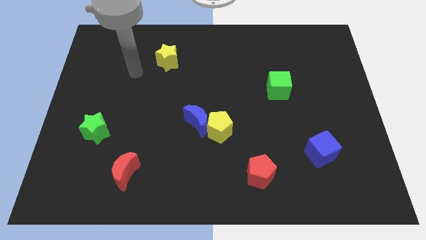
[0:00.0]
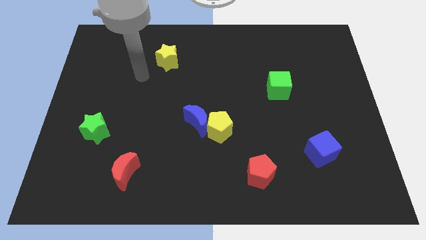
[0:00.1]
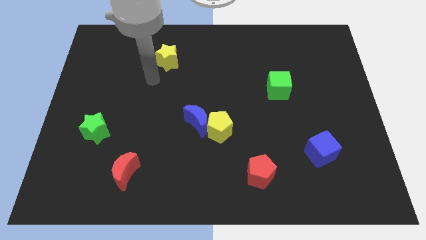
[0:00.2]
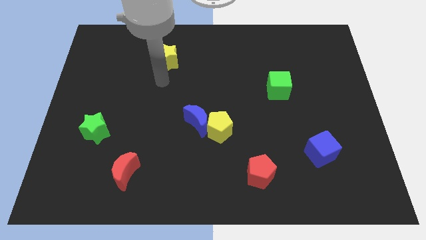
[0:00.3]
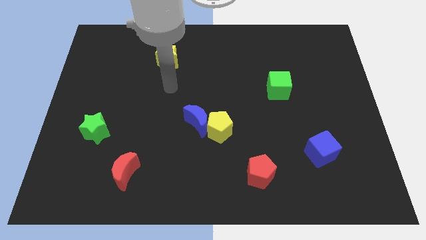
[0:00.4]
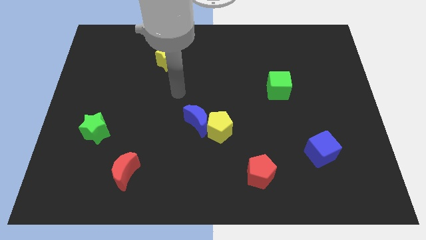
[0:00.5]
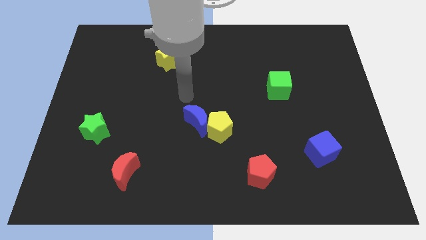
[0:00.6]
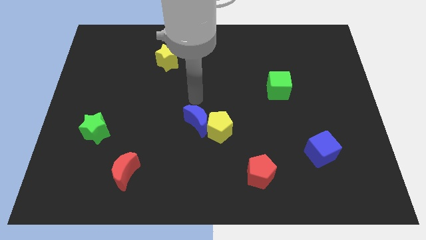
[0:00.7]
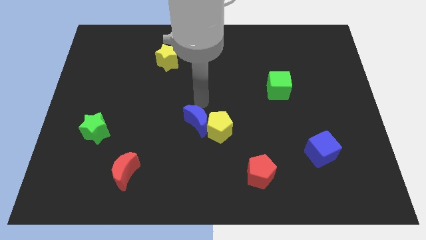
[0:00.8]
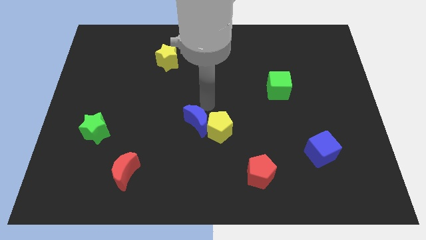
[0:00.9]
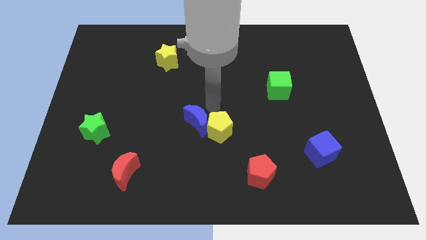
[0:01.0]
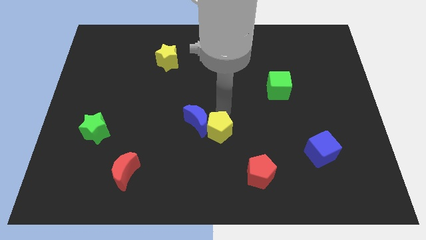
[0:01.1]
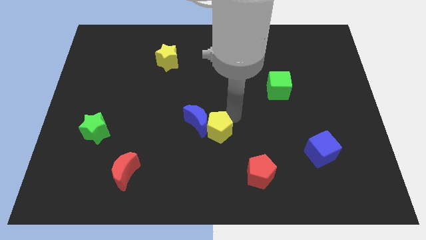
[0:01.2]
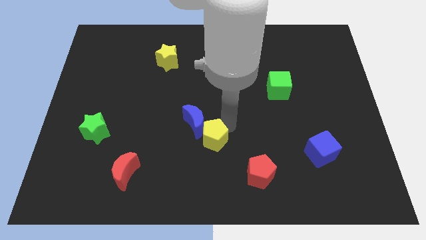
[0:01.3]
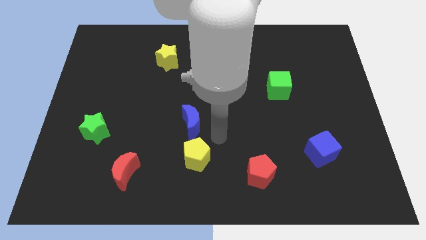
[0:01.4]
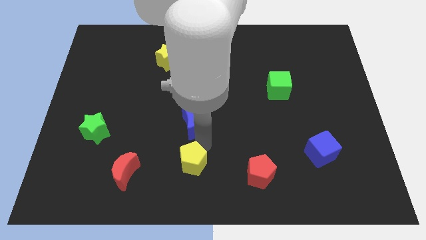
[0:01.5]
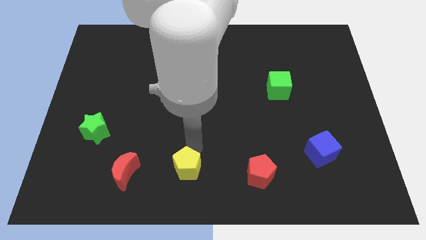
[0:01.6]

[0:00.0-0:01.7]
pull the blue moon apart from the yellow pentagon

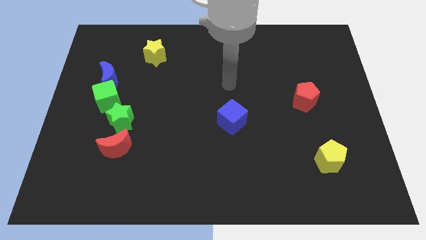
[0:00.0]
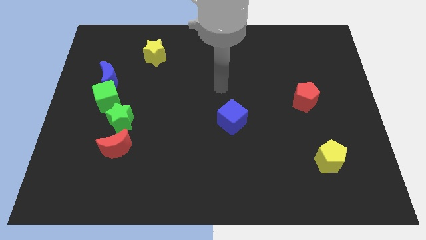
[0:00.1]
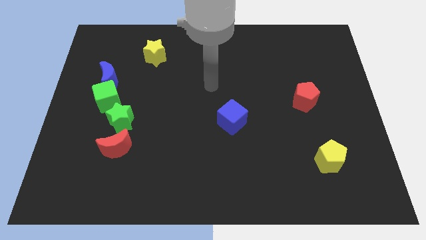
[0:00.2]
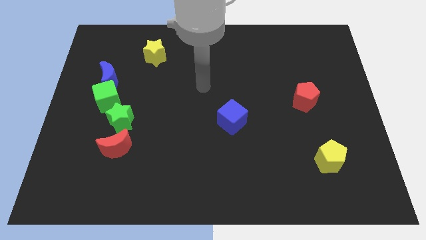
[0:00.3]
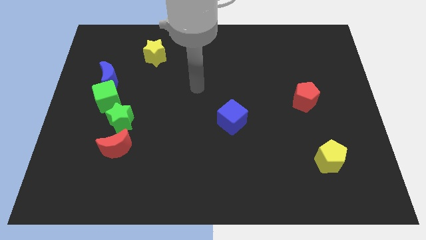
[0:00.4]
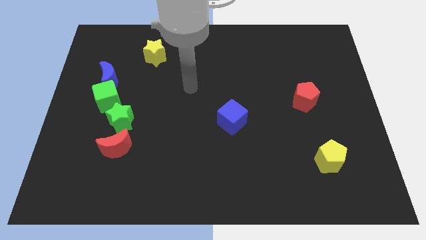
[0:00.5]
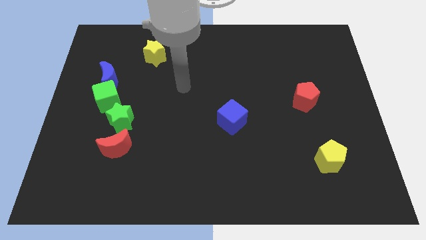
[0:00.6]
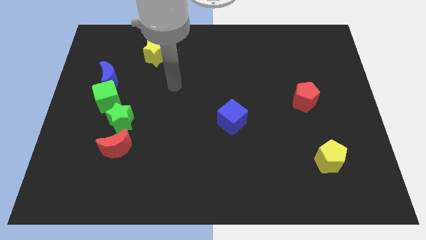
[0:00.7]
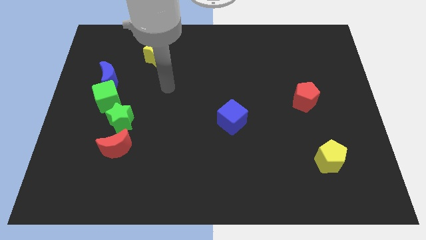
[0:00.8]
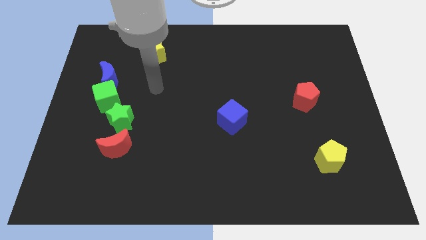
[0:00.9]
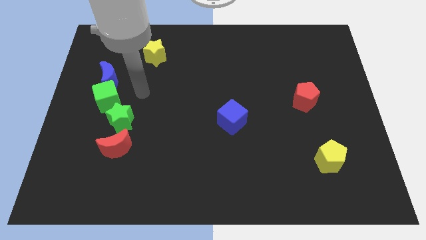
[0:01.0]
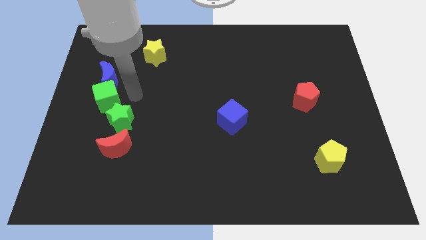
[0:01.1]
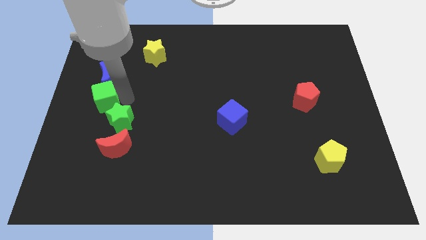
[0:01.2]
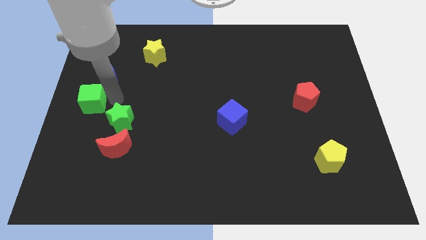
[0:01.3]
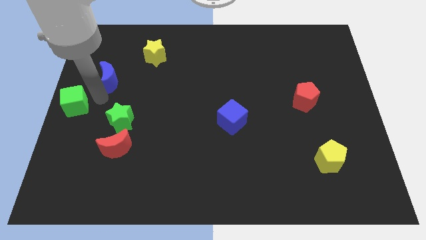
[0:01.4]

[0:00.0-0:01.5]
move the blue moon away from the green cube

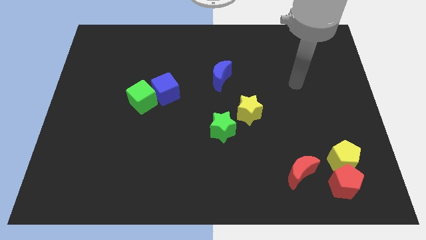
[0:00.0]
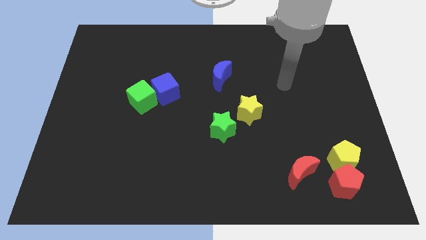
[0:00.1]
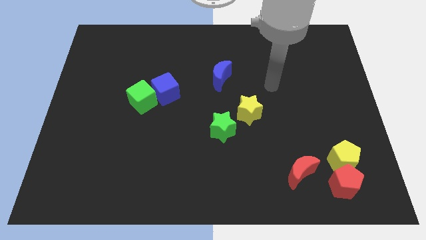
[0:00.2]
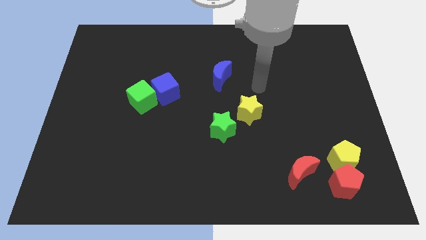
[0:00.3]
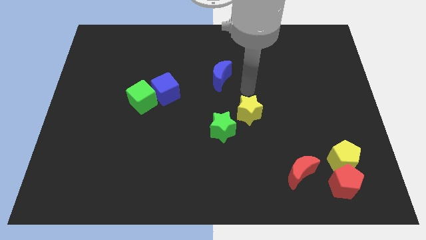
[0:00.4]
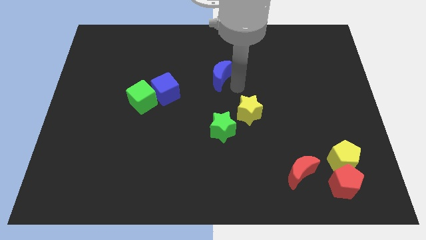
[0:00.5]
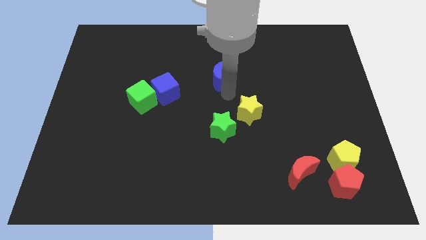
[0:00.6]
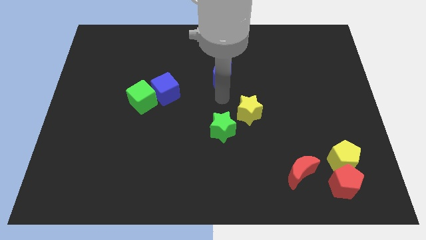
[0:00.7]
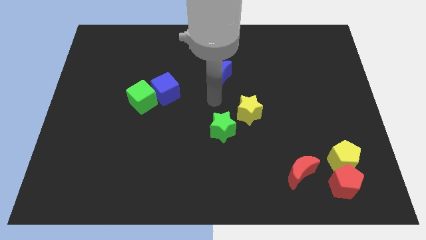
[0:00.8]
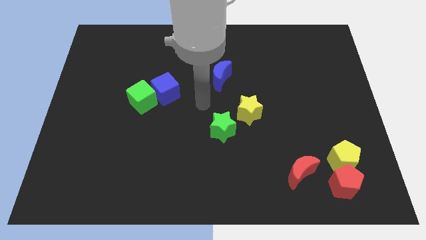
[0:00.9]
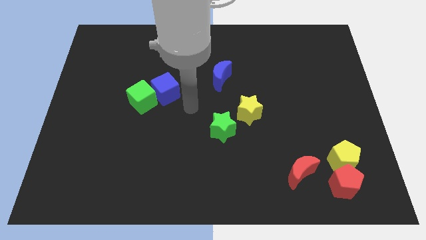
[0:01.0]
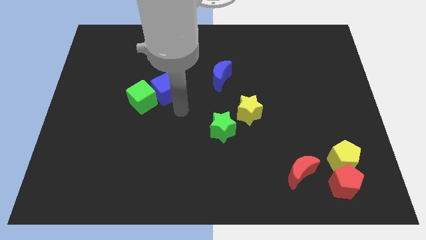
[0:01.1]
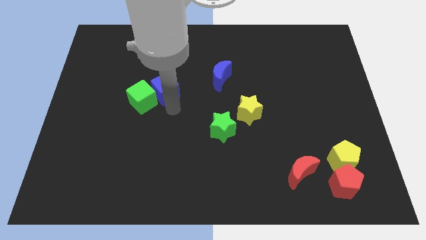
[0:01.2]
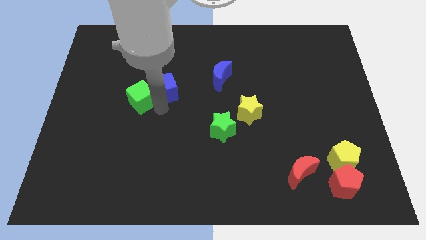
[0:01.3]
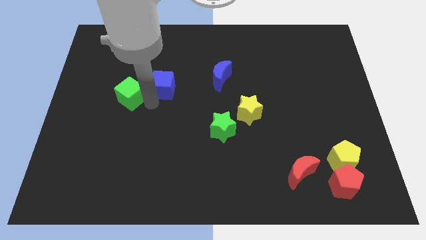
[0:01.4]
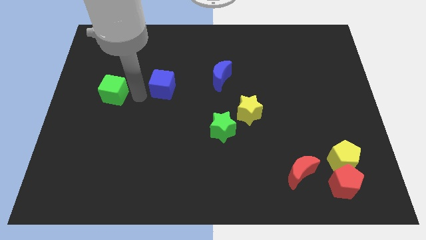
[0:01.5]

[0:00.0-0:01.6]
move the blue cube away from the green cube

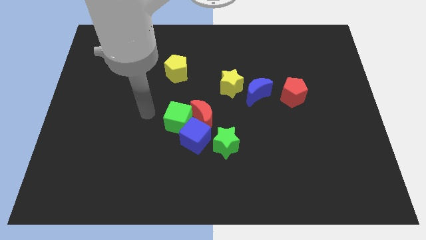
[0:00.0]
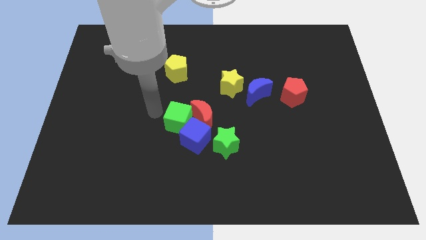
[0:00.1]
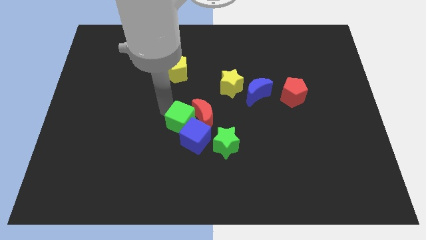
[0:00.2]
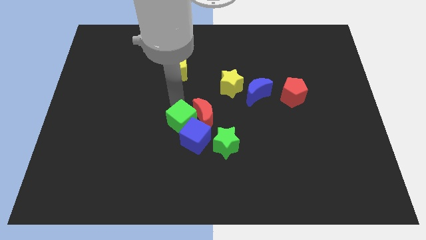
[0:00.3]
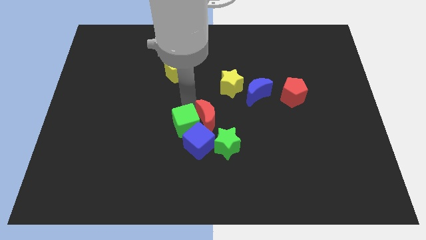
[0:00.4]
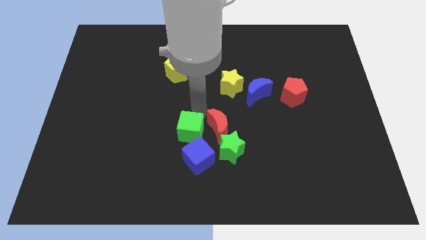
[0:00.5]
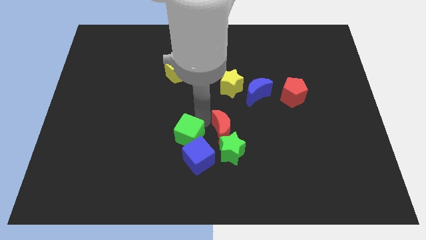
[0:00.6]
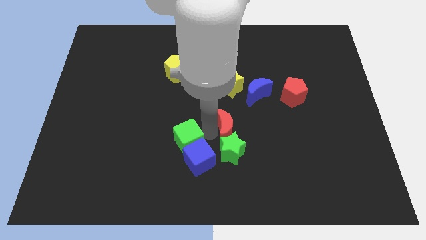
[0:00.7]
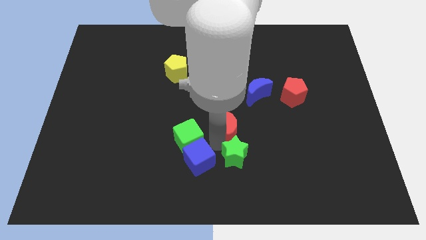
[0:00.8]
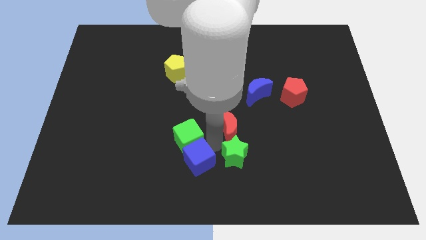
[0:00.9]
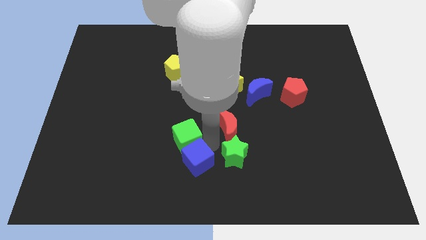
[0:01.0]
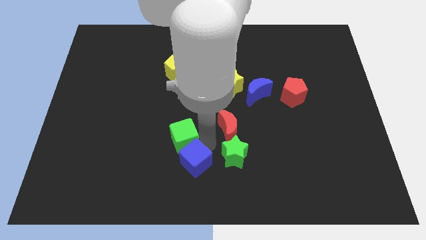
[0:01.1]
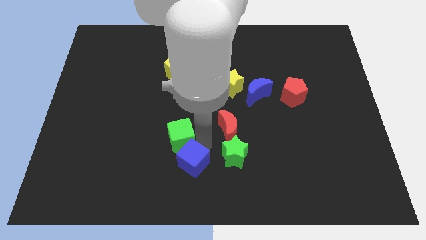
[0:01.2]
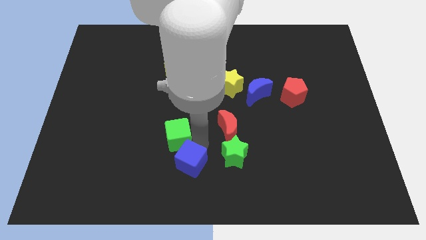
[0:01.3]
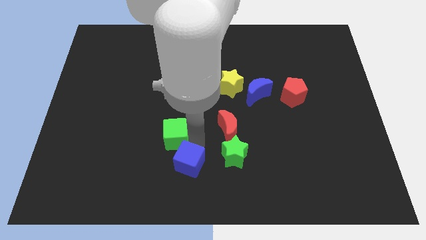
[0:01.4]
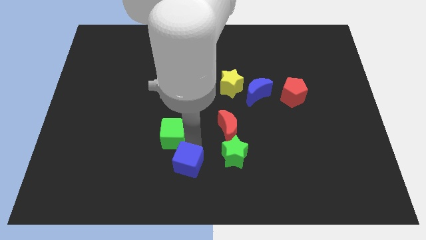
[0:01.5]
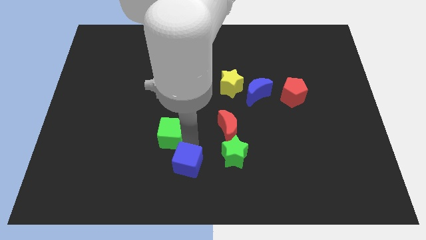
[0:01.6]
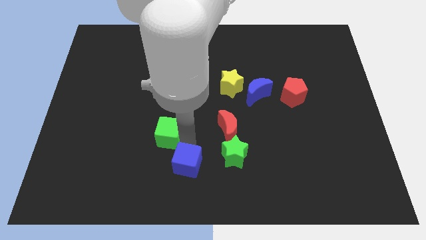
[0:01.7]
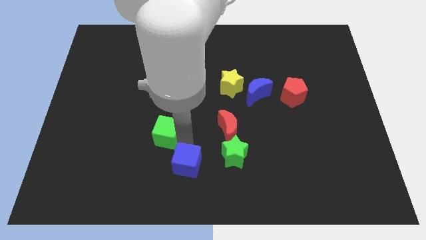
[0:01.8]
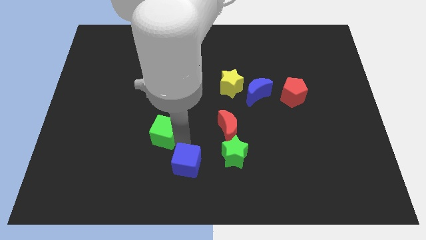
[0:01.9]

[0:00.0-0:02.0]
pull the green cube apart from the red moon and blue cube

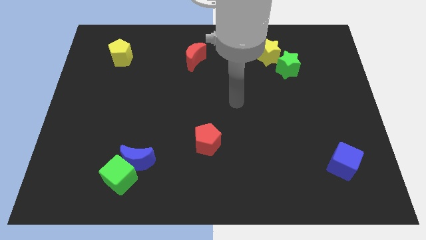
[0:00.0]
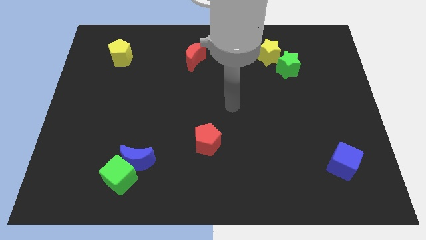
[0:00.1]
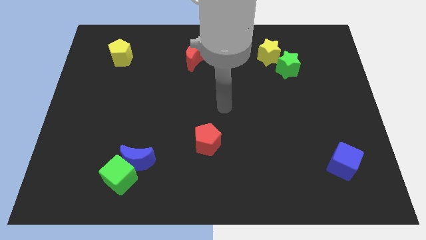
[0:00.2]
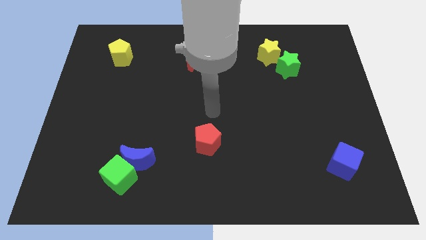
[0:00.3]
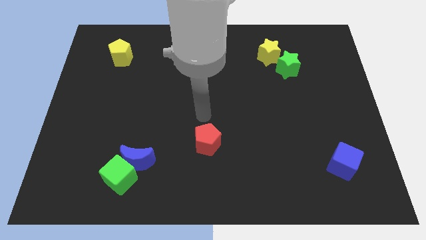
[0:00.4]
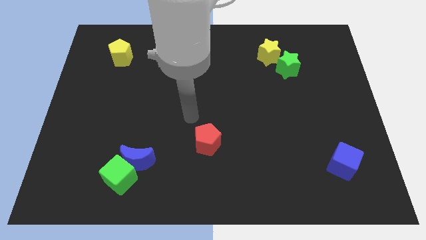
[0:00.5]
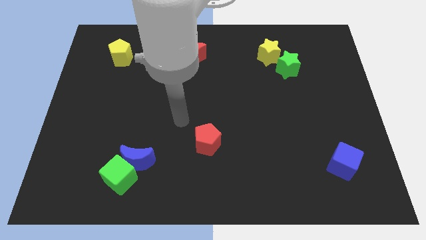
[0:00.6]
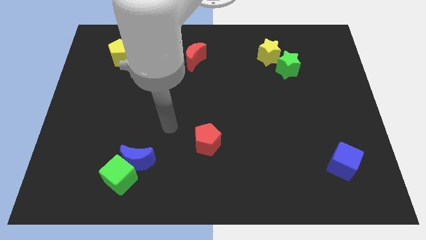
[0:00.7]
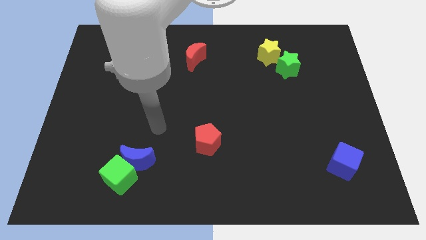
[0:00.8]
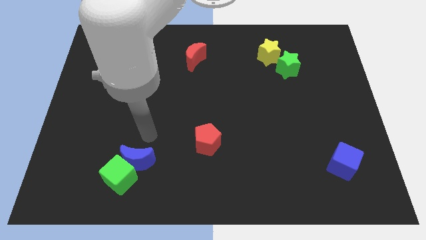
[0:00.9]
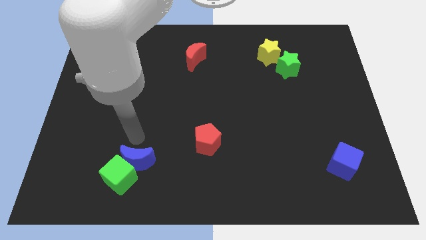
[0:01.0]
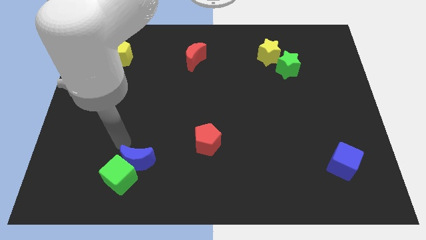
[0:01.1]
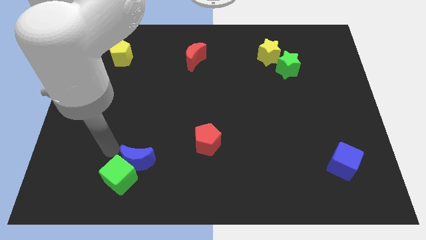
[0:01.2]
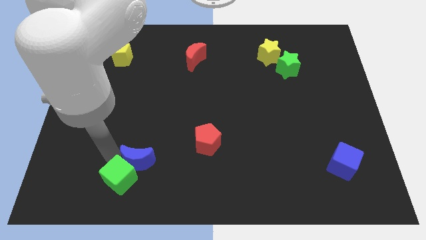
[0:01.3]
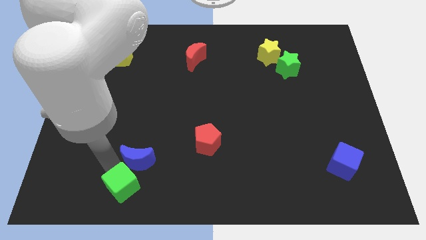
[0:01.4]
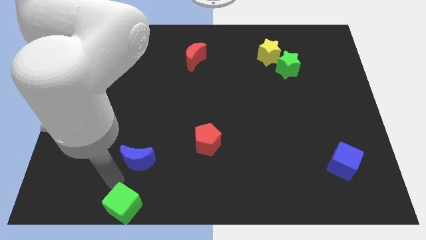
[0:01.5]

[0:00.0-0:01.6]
separate the blue moon from the green cube

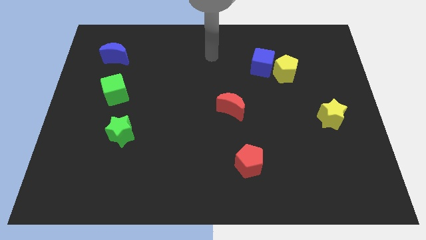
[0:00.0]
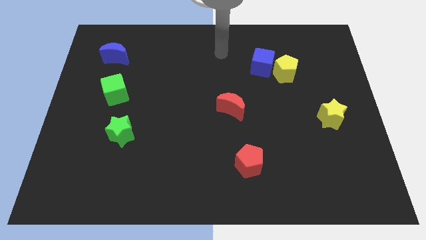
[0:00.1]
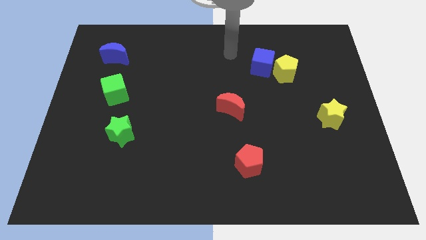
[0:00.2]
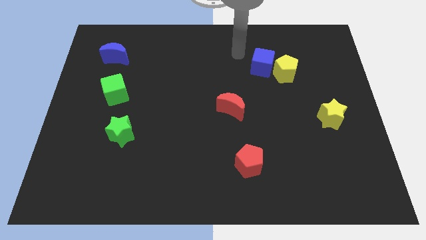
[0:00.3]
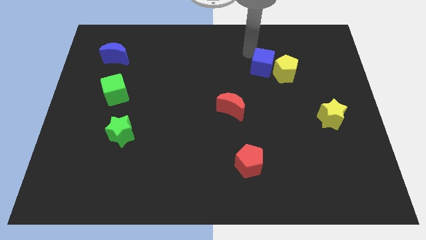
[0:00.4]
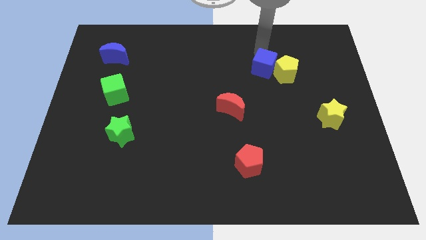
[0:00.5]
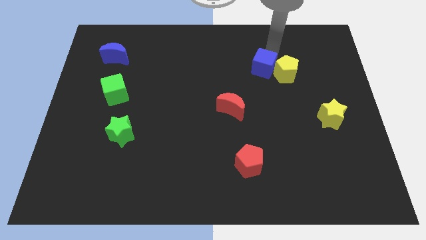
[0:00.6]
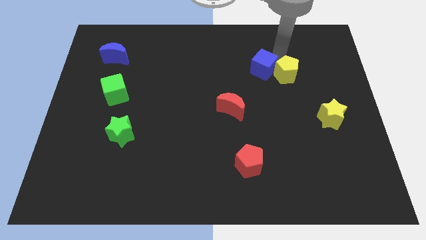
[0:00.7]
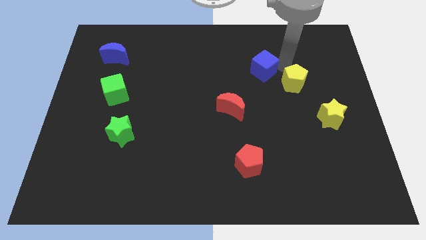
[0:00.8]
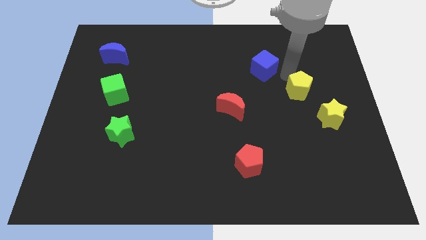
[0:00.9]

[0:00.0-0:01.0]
move the blue cube away from the yellow pentagon

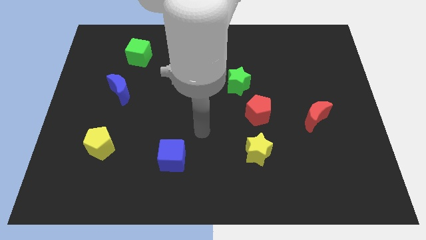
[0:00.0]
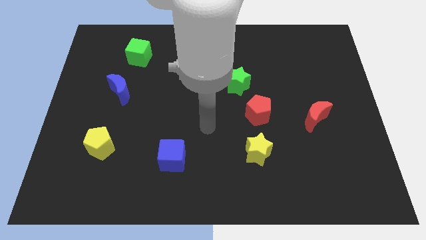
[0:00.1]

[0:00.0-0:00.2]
pull the green star apart from the red pentagon
